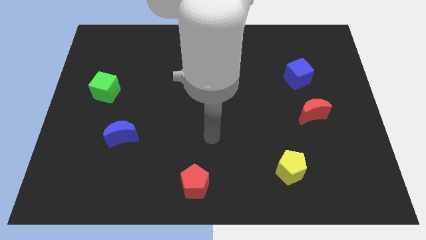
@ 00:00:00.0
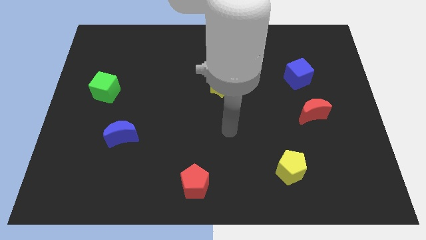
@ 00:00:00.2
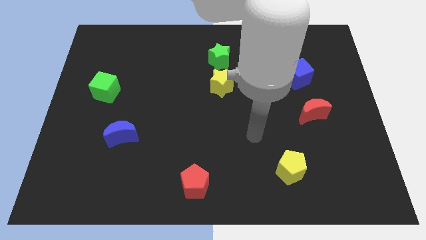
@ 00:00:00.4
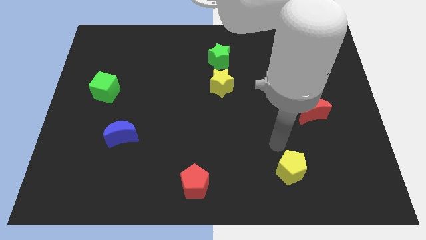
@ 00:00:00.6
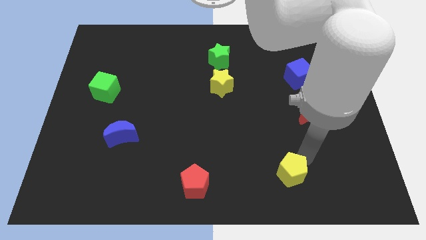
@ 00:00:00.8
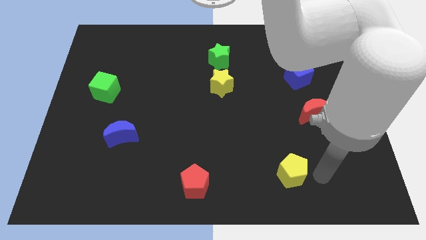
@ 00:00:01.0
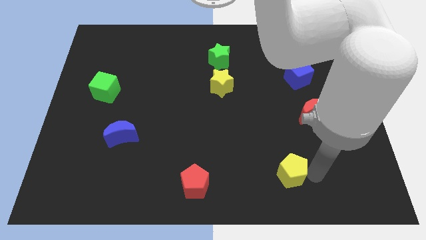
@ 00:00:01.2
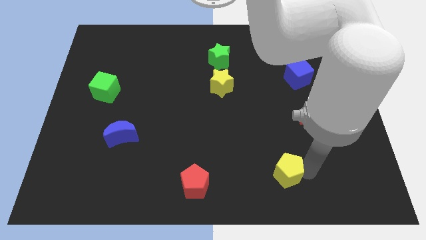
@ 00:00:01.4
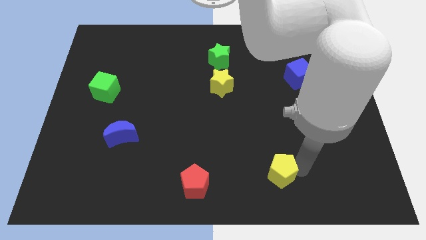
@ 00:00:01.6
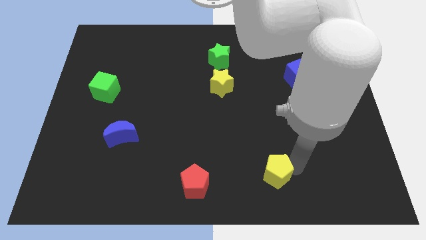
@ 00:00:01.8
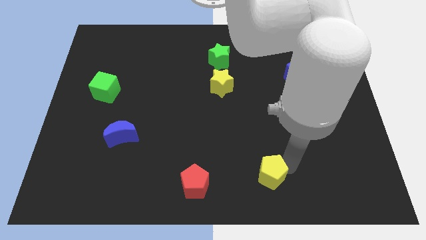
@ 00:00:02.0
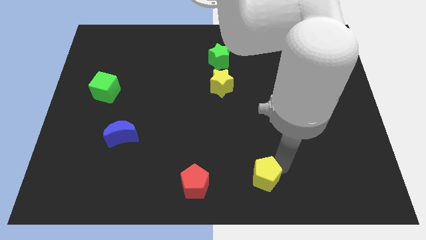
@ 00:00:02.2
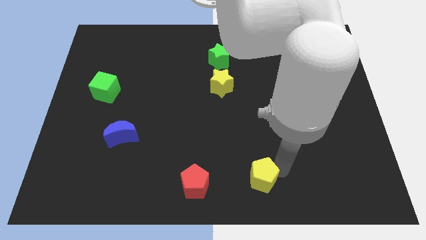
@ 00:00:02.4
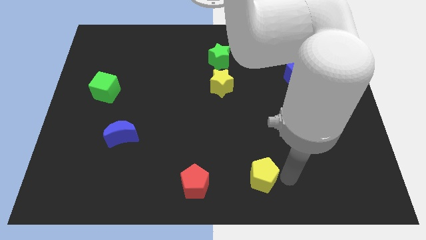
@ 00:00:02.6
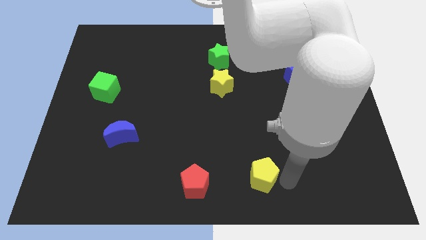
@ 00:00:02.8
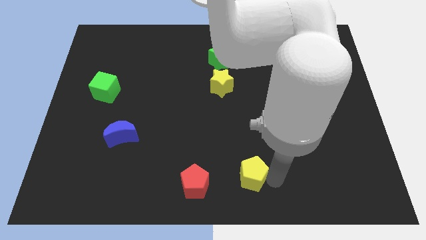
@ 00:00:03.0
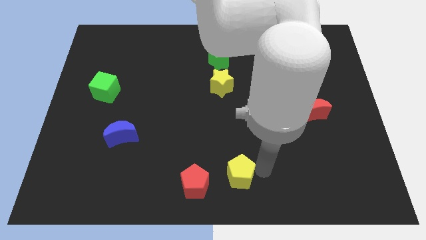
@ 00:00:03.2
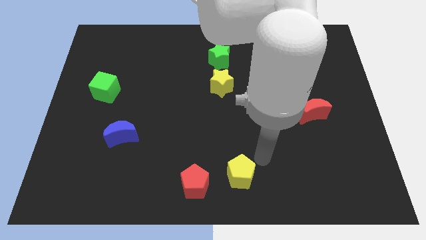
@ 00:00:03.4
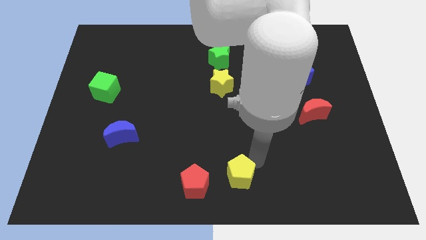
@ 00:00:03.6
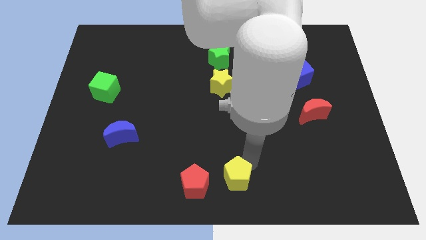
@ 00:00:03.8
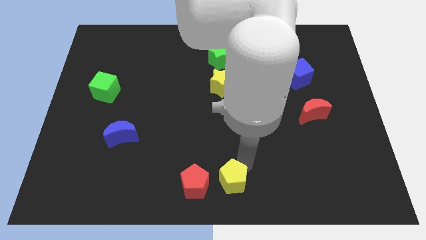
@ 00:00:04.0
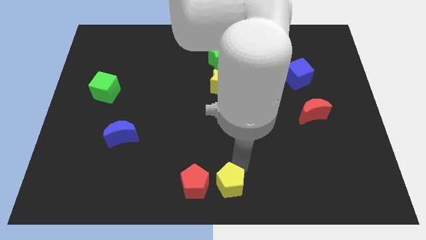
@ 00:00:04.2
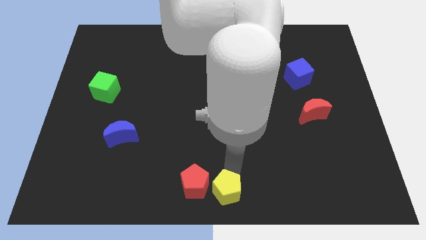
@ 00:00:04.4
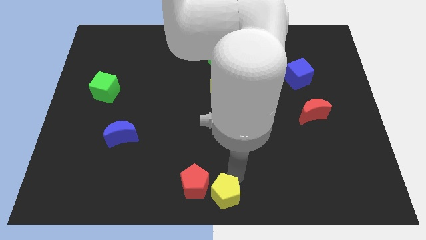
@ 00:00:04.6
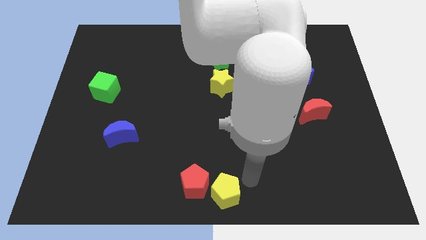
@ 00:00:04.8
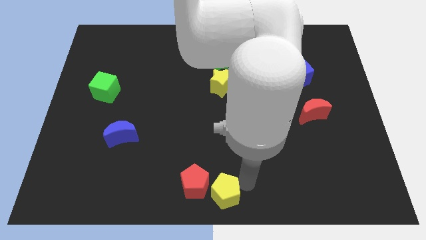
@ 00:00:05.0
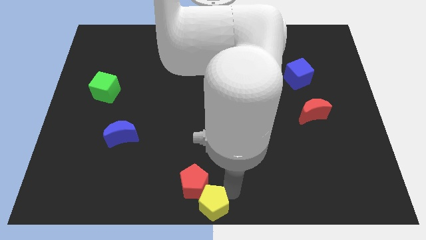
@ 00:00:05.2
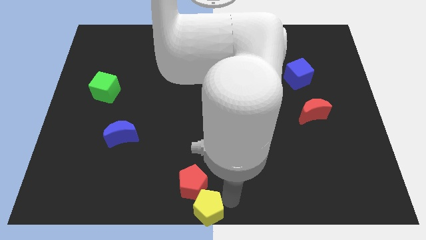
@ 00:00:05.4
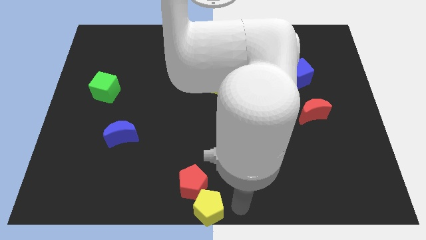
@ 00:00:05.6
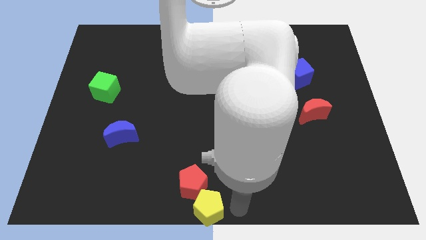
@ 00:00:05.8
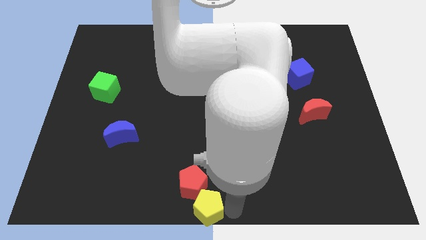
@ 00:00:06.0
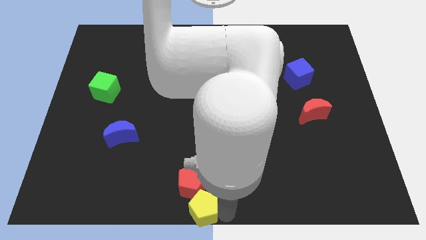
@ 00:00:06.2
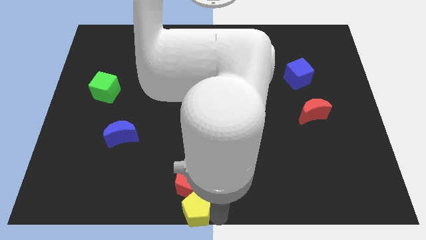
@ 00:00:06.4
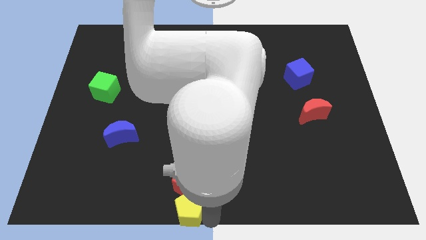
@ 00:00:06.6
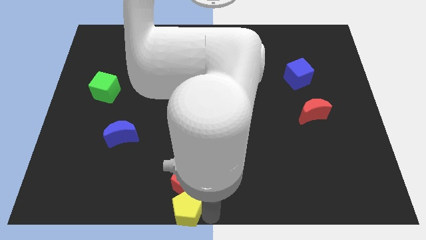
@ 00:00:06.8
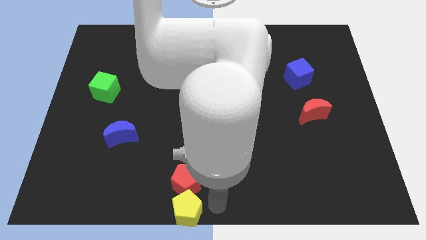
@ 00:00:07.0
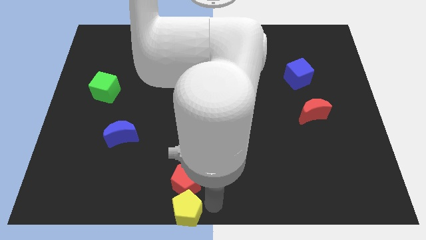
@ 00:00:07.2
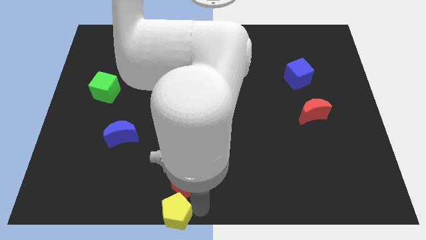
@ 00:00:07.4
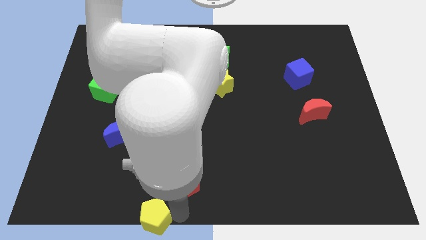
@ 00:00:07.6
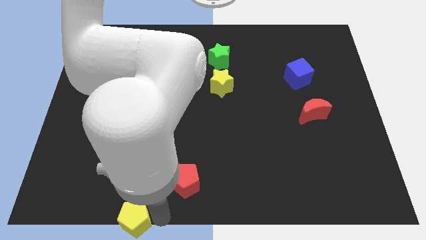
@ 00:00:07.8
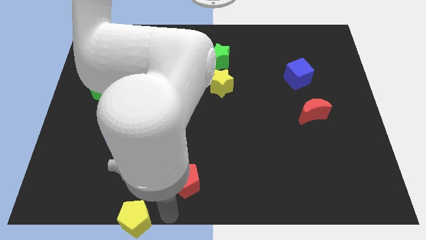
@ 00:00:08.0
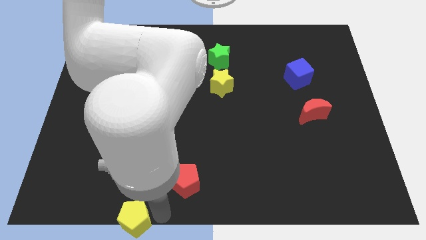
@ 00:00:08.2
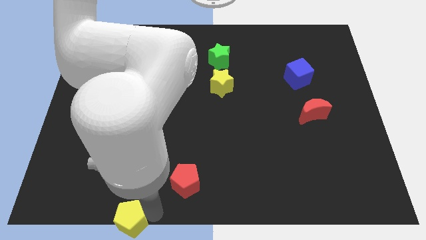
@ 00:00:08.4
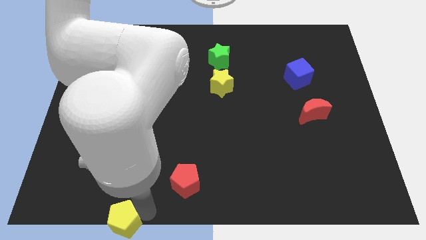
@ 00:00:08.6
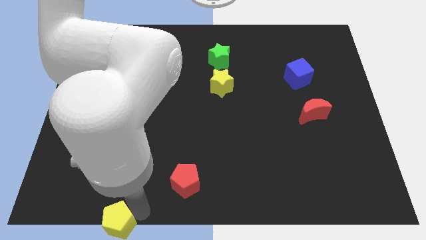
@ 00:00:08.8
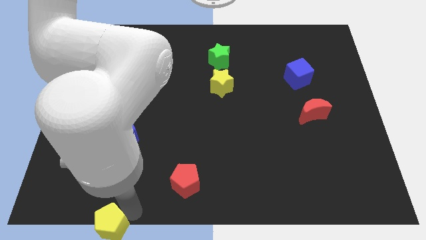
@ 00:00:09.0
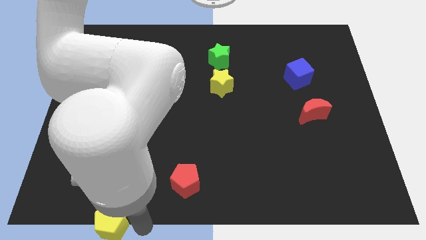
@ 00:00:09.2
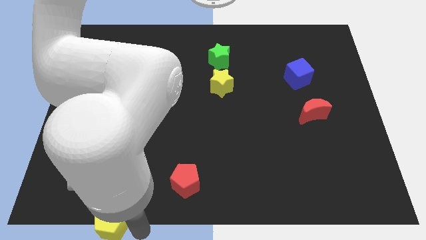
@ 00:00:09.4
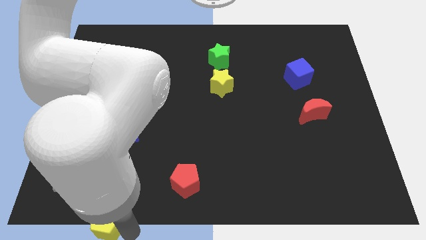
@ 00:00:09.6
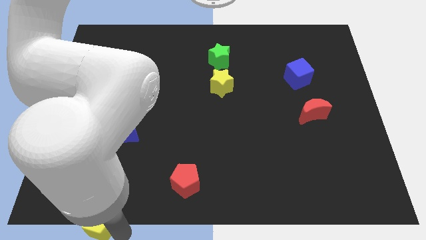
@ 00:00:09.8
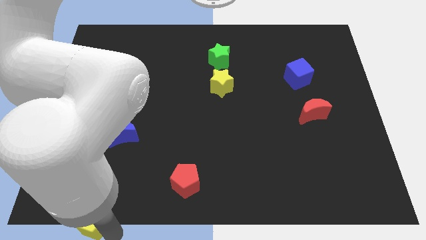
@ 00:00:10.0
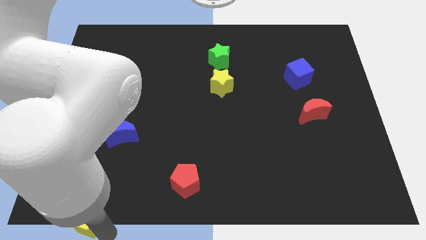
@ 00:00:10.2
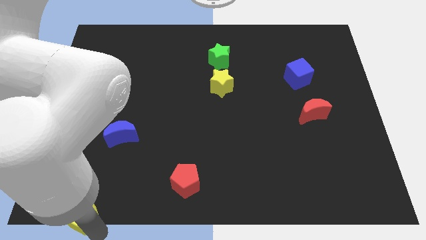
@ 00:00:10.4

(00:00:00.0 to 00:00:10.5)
move the yellow pentagon to the bottom left

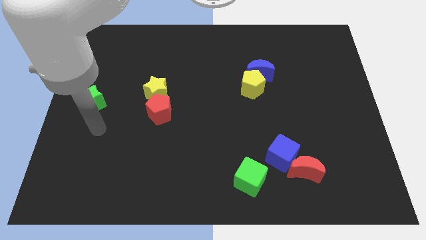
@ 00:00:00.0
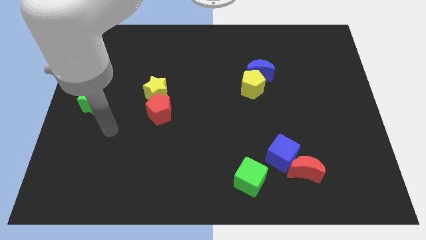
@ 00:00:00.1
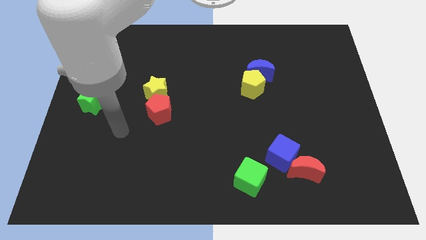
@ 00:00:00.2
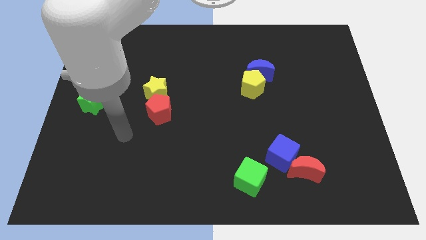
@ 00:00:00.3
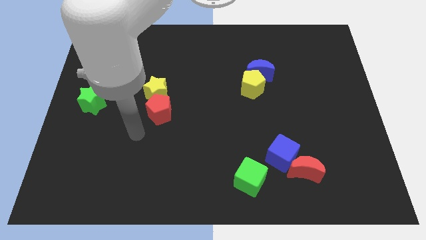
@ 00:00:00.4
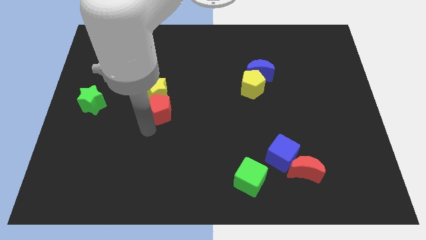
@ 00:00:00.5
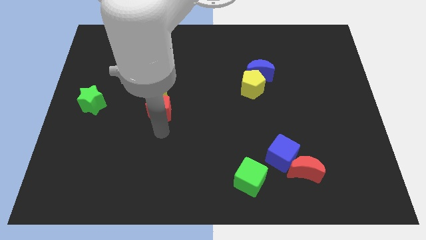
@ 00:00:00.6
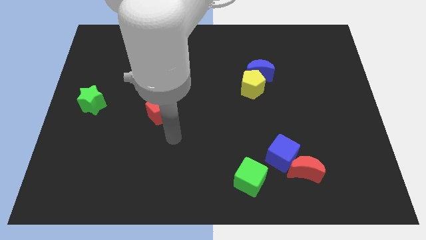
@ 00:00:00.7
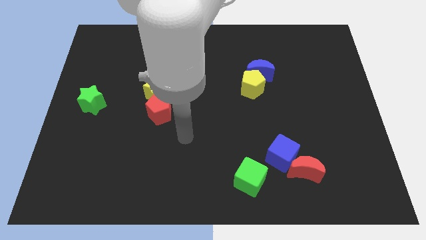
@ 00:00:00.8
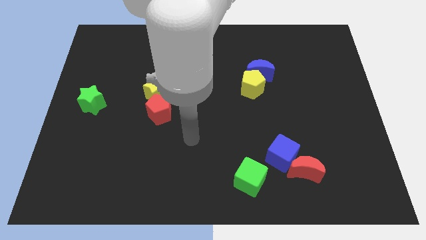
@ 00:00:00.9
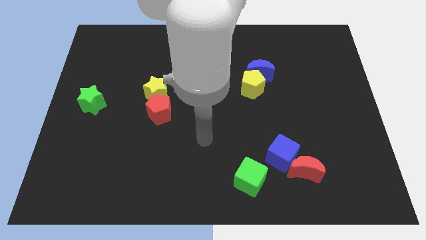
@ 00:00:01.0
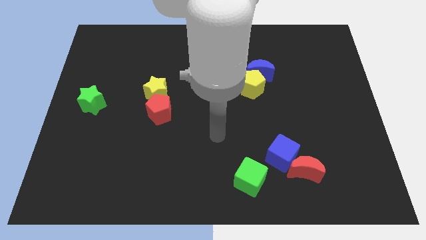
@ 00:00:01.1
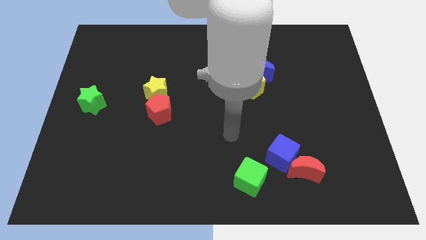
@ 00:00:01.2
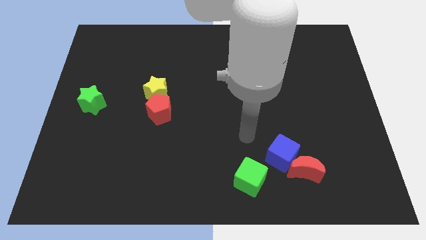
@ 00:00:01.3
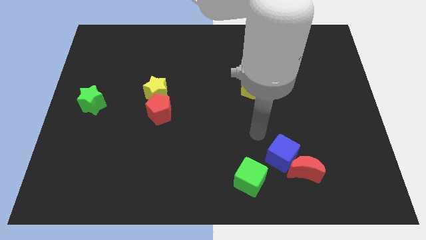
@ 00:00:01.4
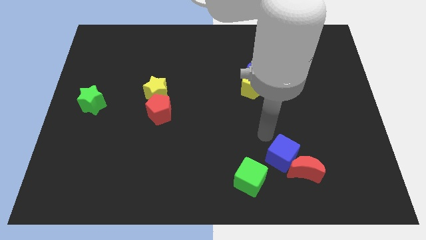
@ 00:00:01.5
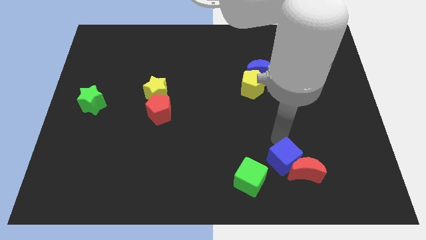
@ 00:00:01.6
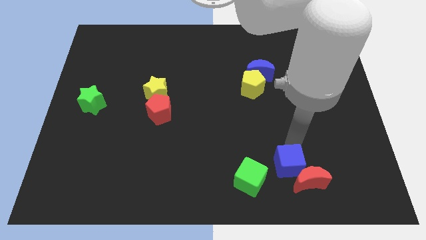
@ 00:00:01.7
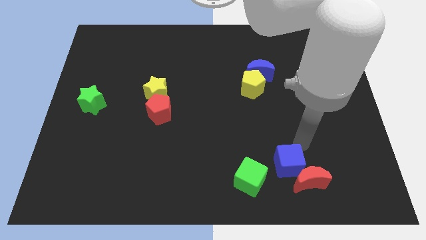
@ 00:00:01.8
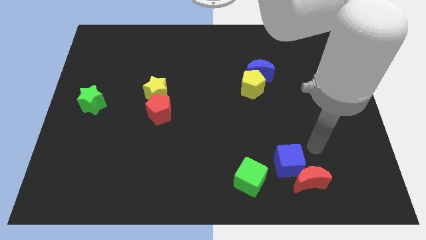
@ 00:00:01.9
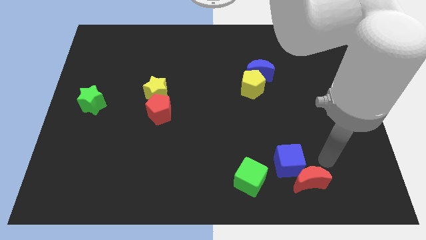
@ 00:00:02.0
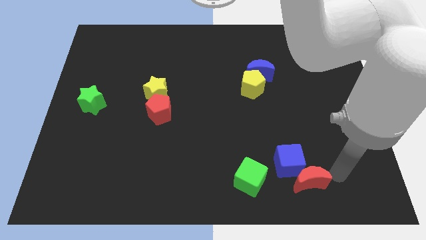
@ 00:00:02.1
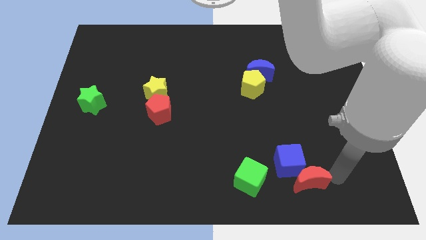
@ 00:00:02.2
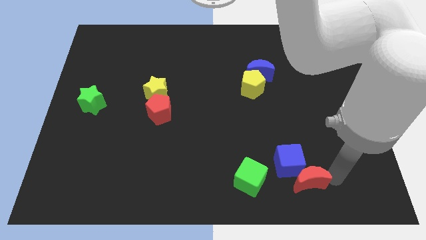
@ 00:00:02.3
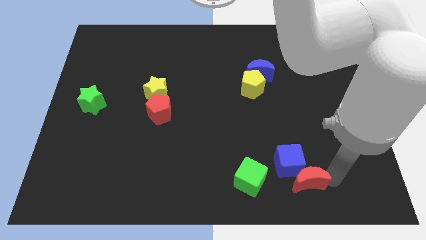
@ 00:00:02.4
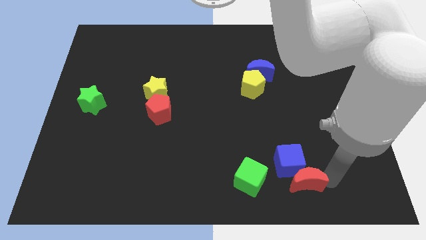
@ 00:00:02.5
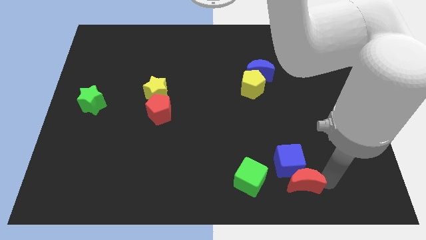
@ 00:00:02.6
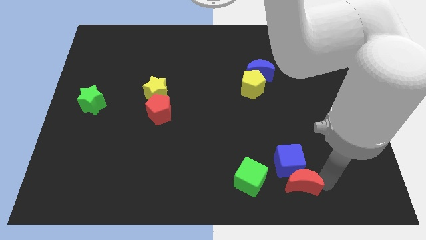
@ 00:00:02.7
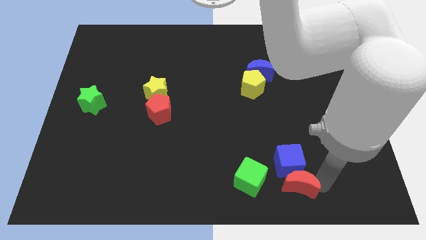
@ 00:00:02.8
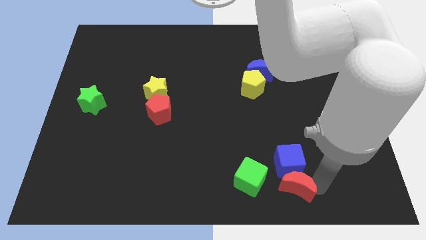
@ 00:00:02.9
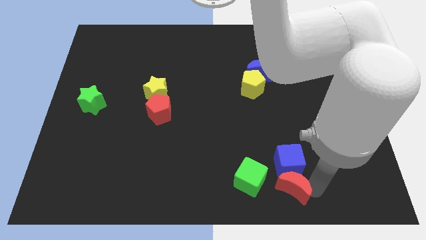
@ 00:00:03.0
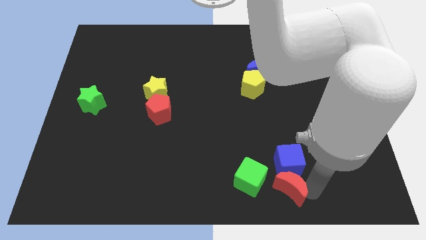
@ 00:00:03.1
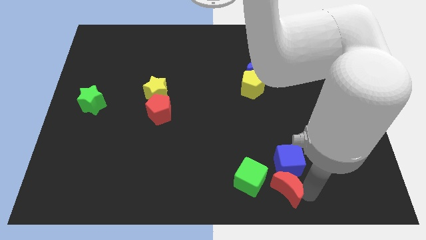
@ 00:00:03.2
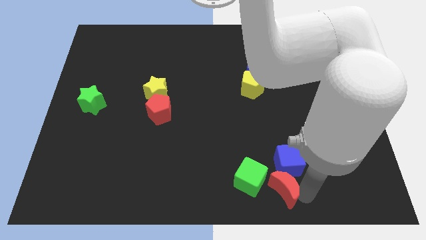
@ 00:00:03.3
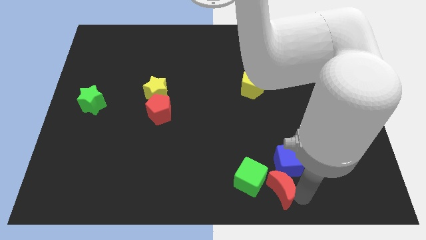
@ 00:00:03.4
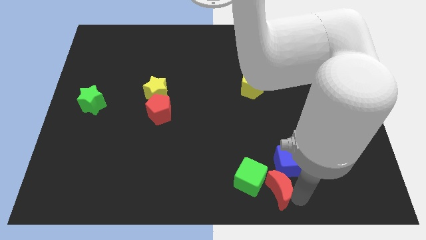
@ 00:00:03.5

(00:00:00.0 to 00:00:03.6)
push the red moon to the bottom side
